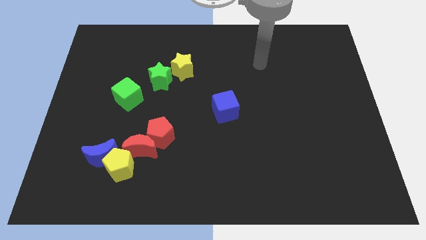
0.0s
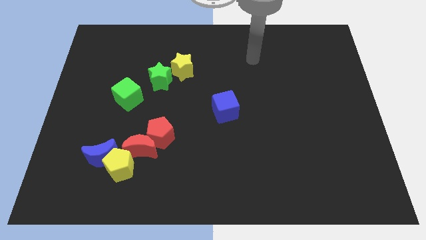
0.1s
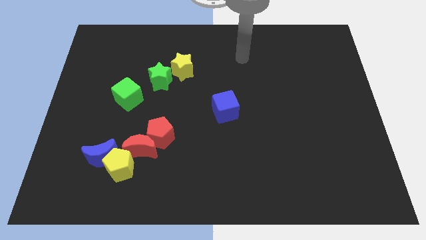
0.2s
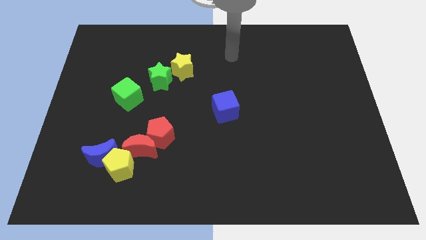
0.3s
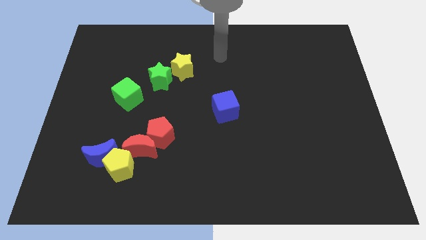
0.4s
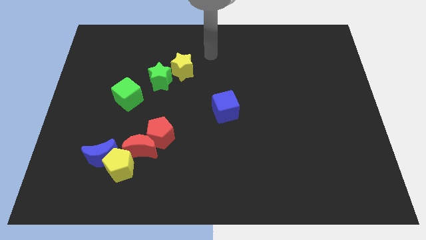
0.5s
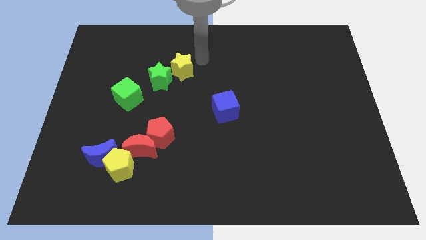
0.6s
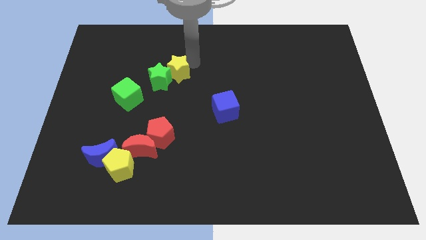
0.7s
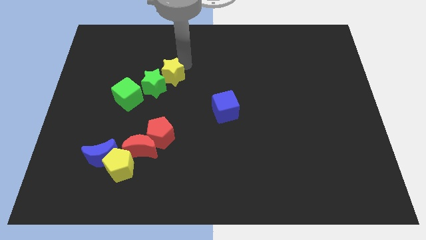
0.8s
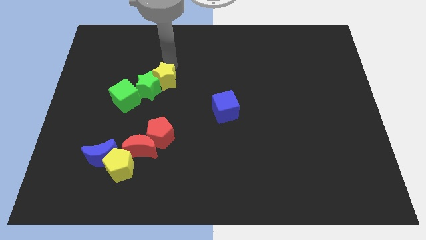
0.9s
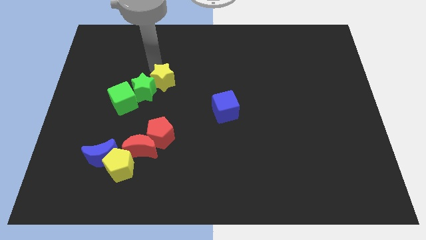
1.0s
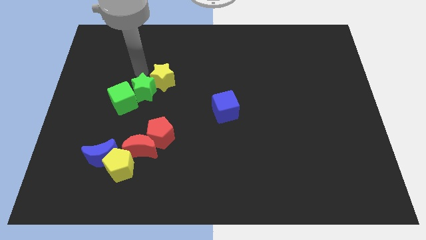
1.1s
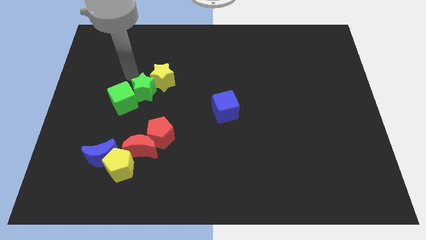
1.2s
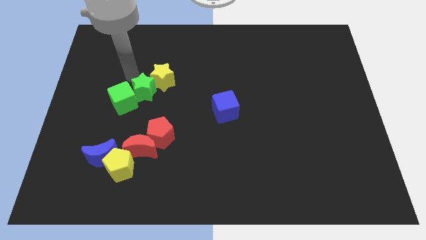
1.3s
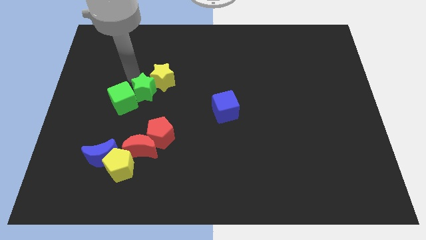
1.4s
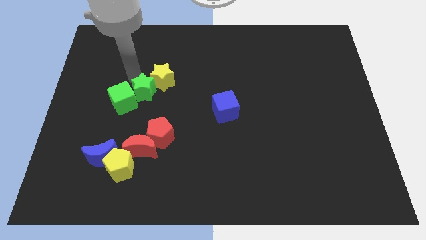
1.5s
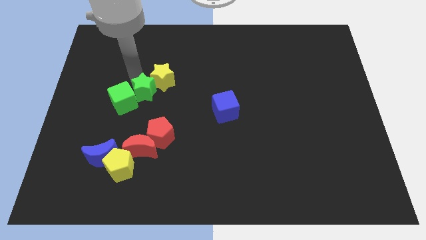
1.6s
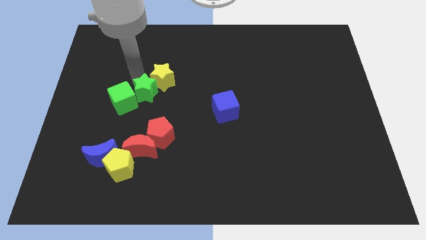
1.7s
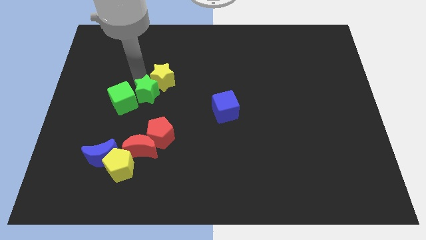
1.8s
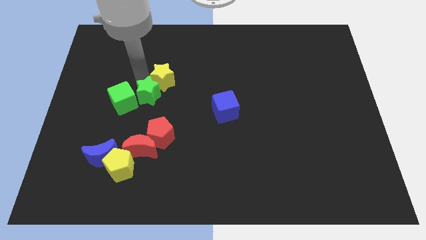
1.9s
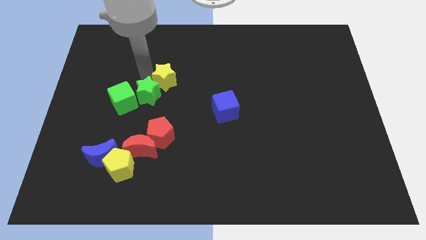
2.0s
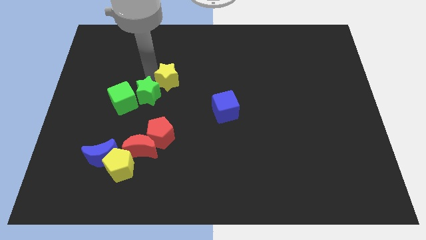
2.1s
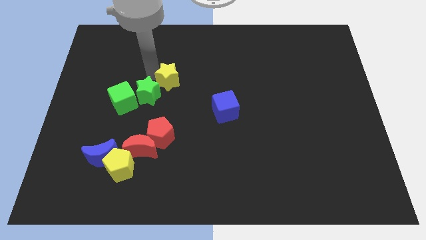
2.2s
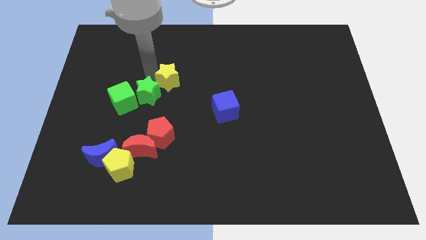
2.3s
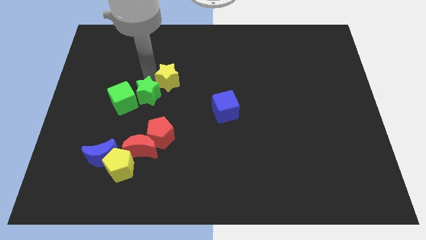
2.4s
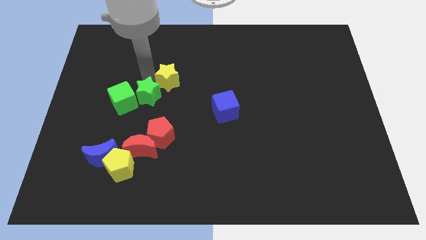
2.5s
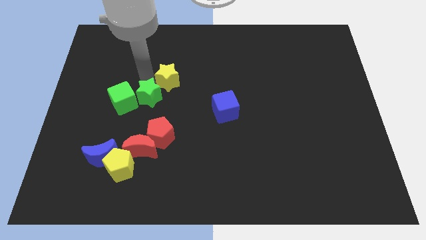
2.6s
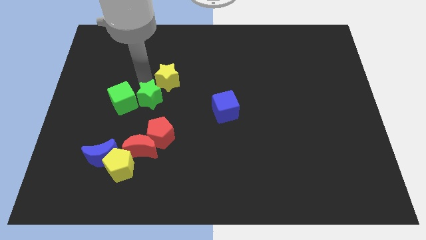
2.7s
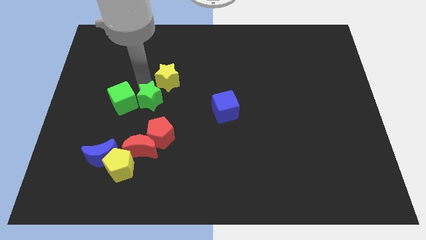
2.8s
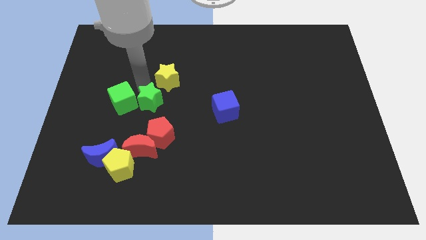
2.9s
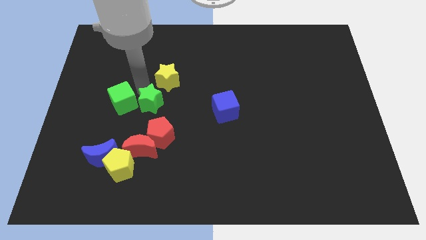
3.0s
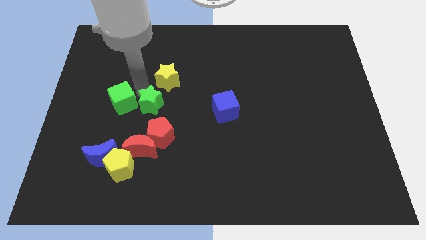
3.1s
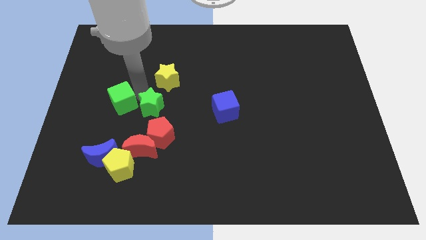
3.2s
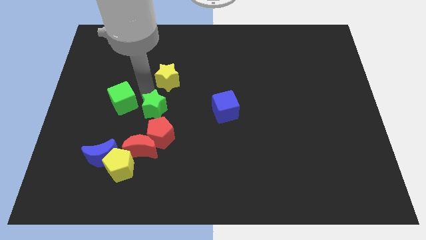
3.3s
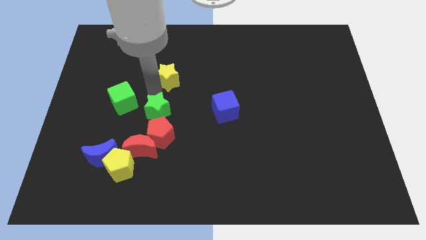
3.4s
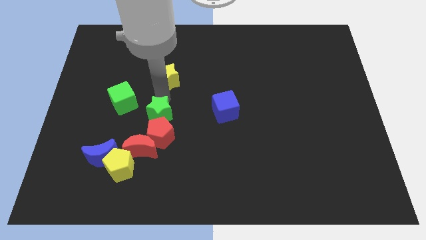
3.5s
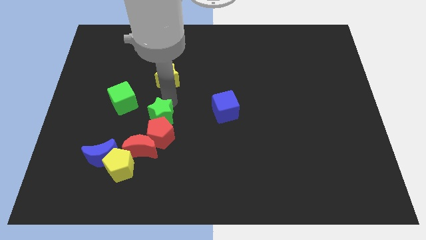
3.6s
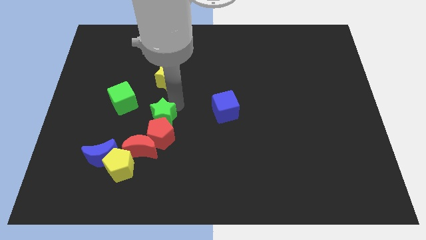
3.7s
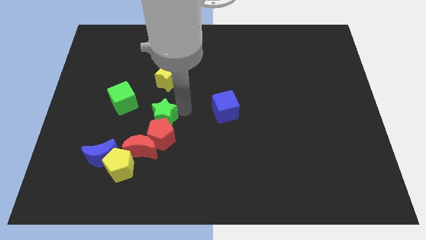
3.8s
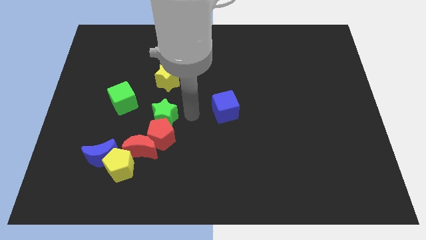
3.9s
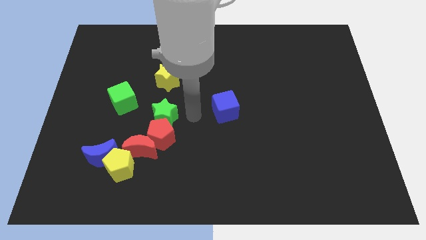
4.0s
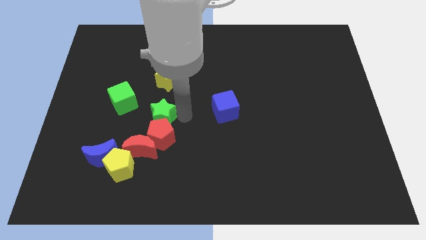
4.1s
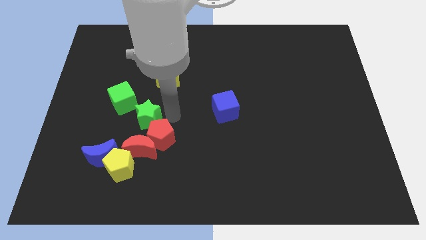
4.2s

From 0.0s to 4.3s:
slightly move the green star diagonally down and left

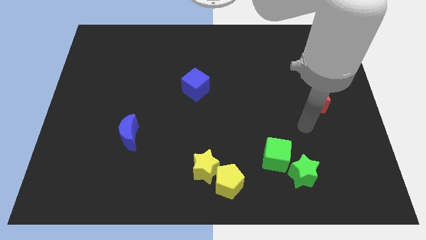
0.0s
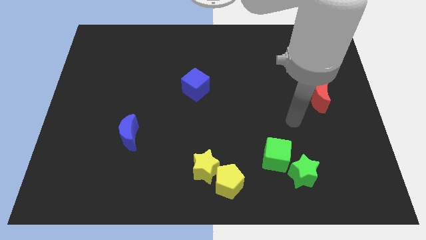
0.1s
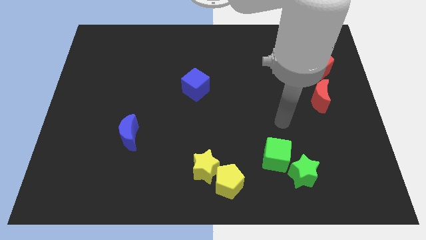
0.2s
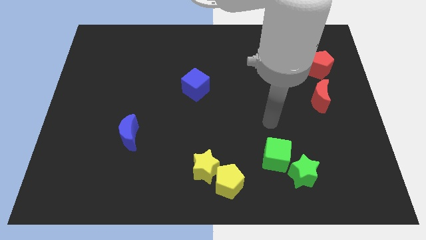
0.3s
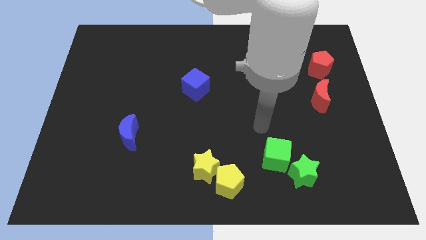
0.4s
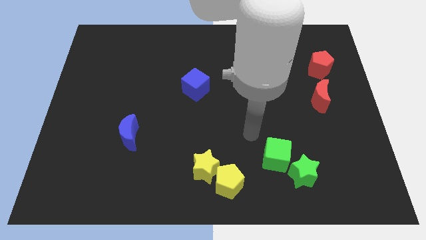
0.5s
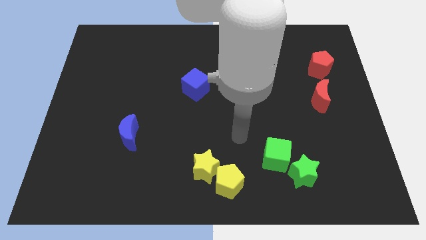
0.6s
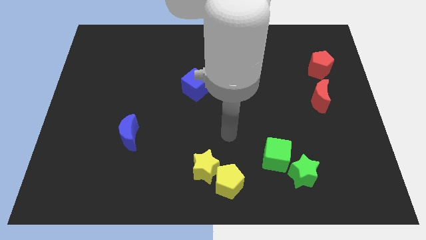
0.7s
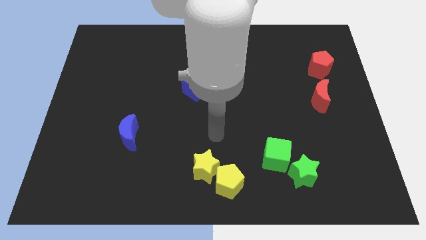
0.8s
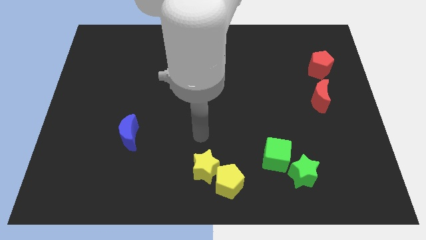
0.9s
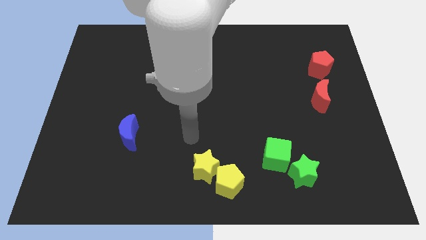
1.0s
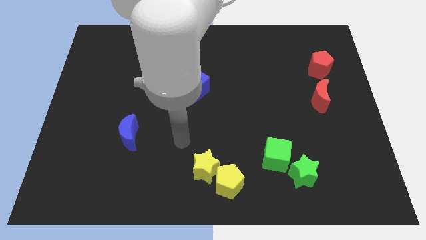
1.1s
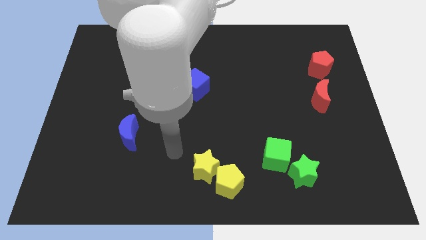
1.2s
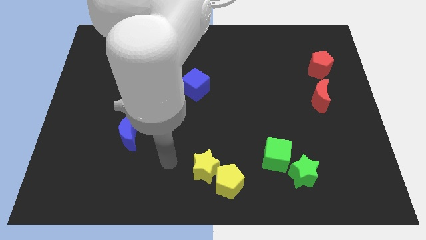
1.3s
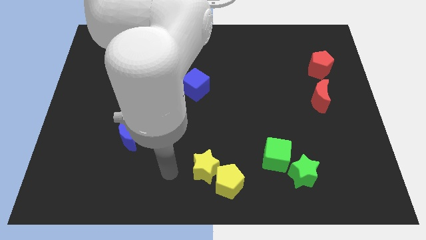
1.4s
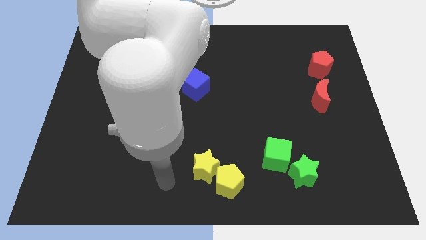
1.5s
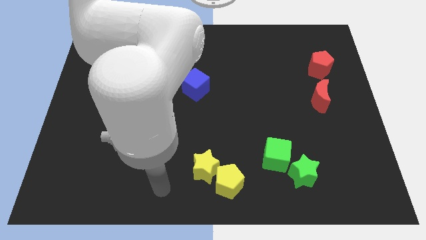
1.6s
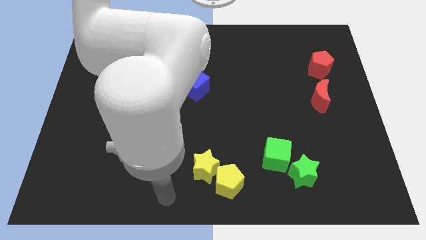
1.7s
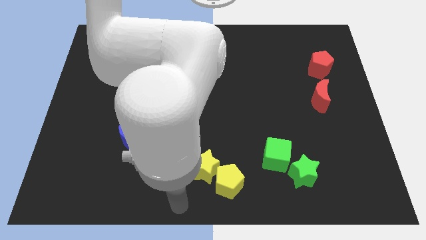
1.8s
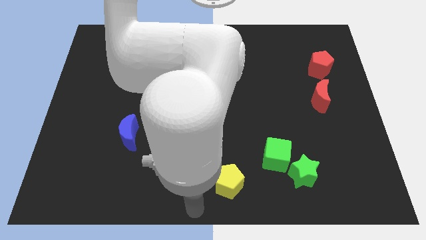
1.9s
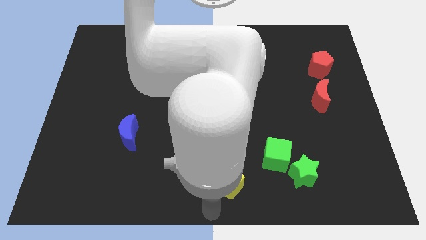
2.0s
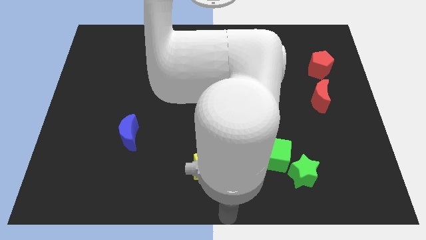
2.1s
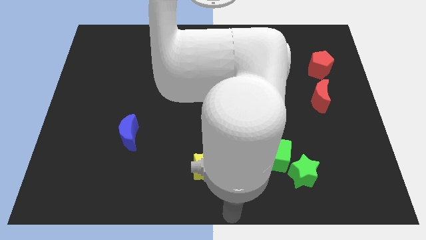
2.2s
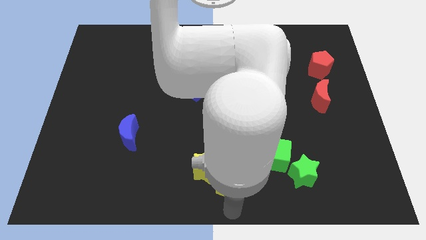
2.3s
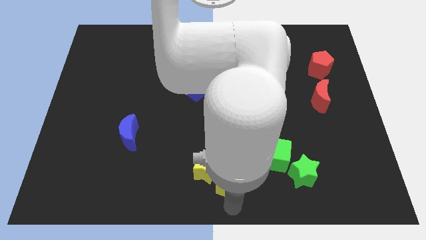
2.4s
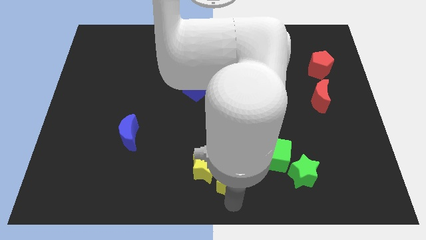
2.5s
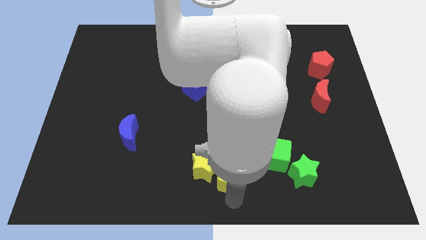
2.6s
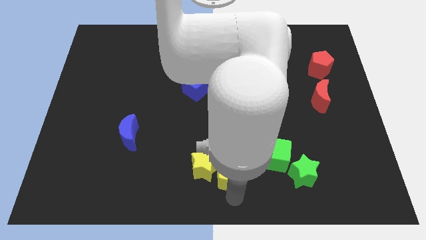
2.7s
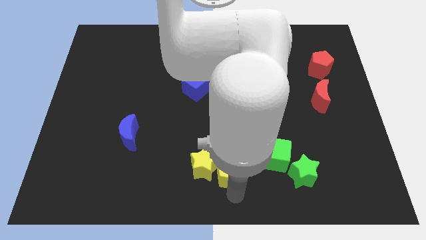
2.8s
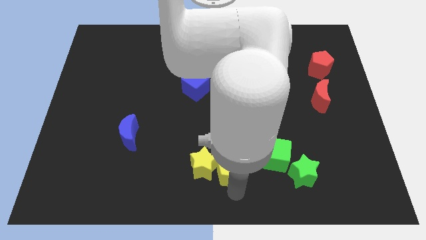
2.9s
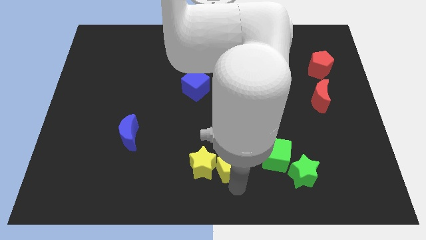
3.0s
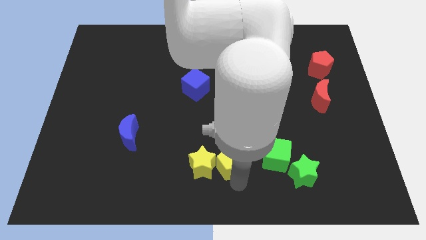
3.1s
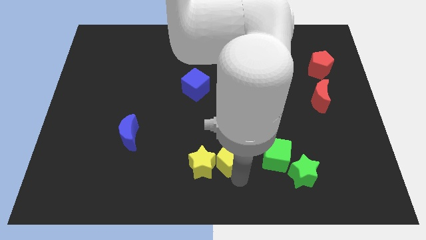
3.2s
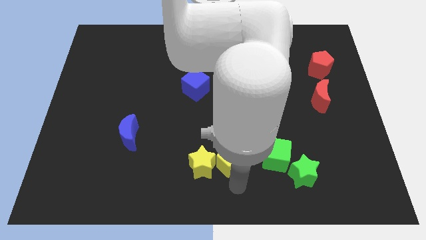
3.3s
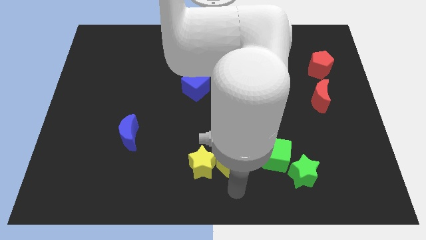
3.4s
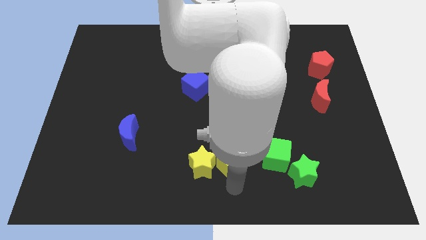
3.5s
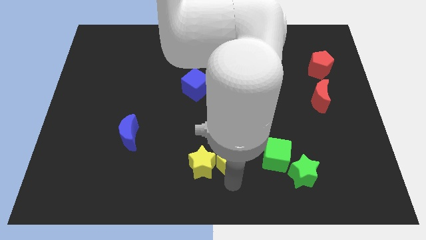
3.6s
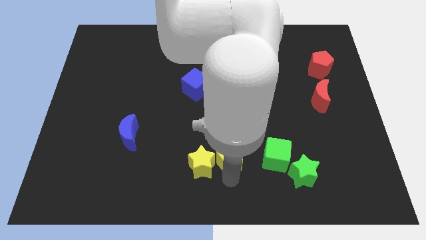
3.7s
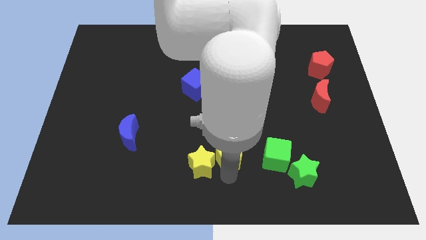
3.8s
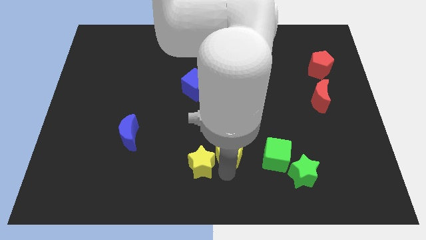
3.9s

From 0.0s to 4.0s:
slightly slide the yellow pentagon upwards
